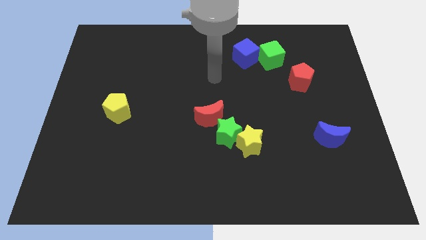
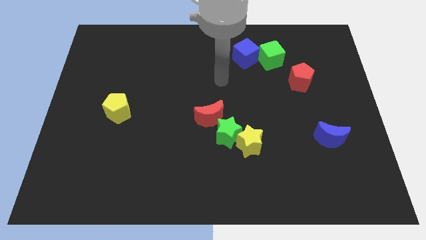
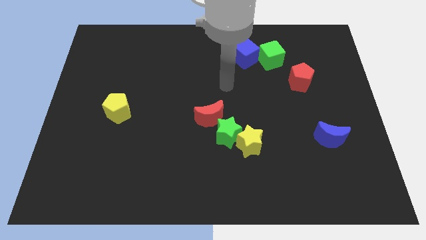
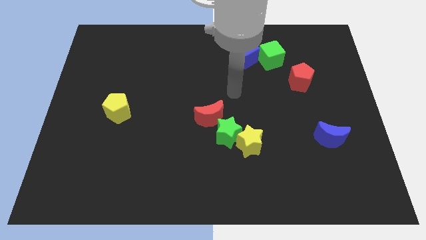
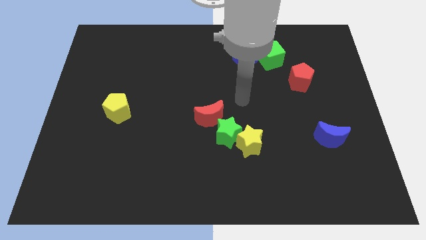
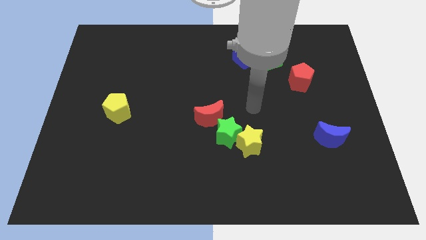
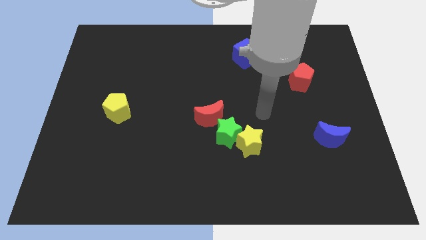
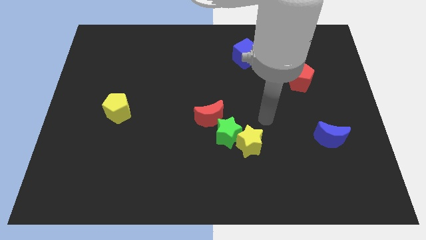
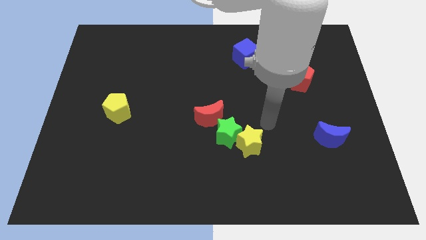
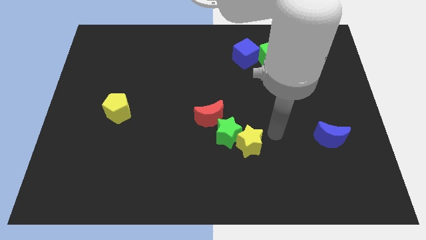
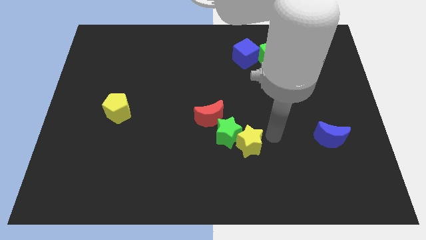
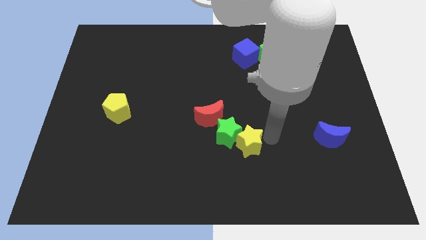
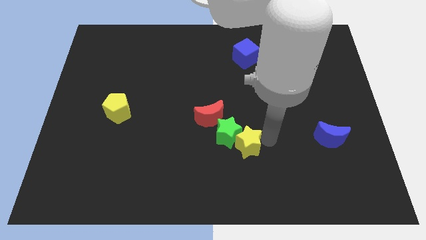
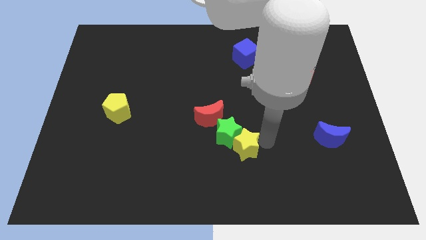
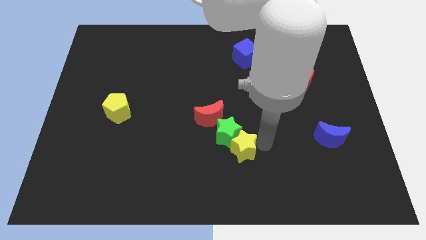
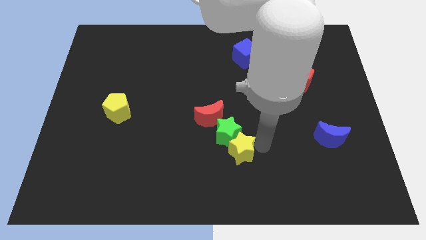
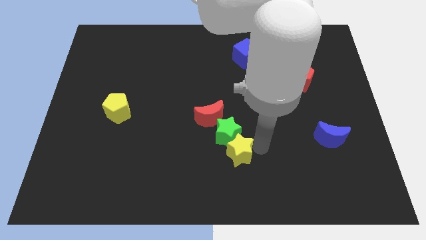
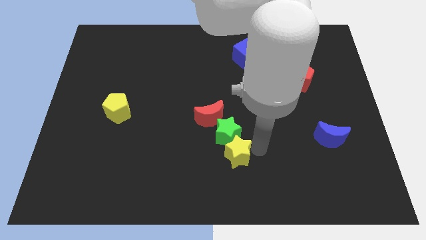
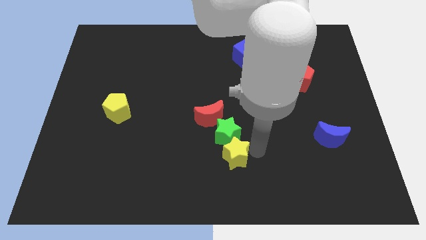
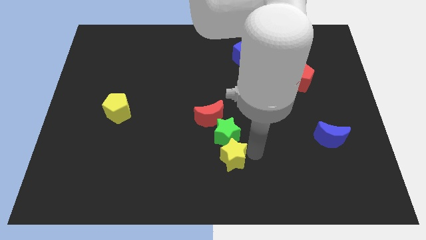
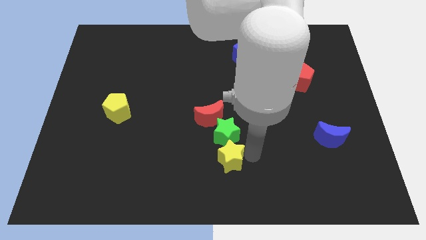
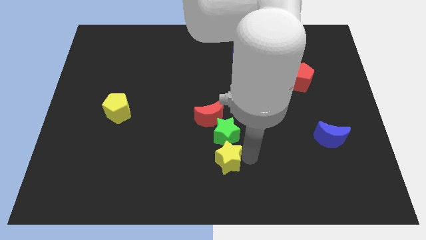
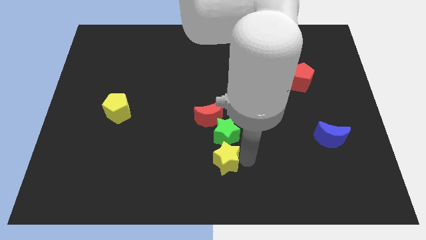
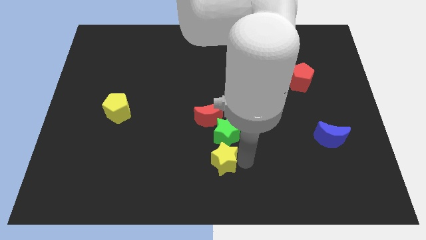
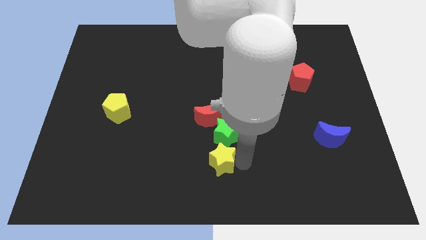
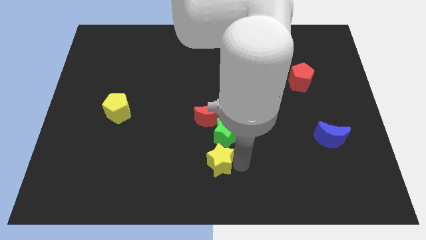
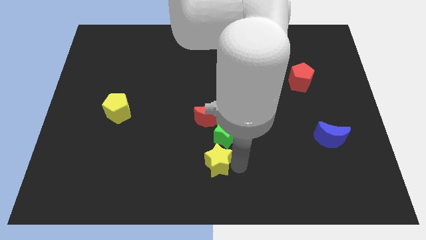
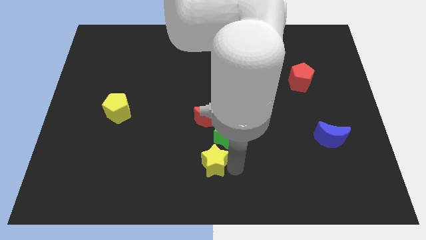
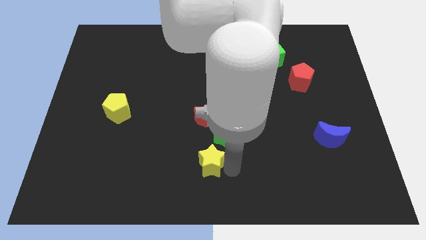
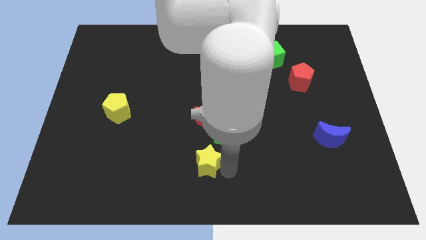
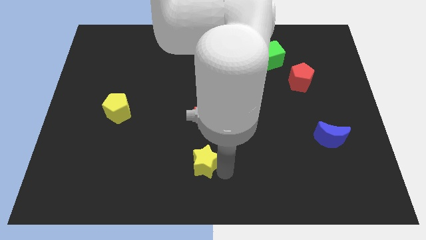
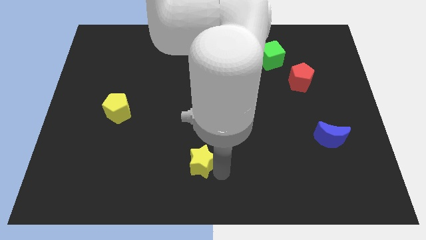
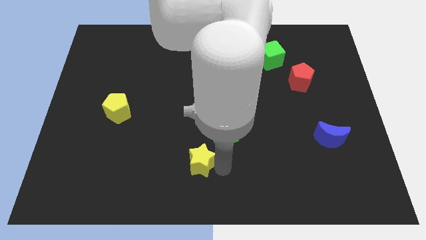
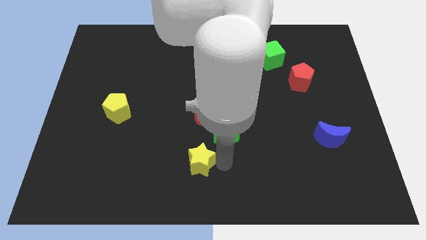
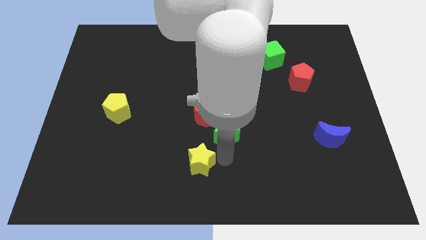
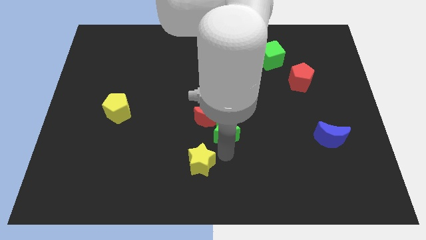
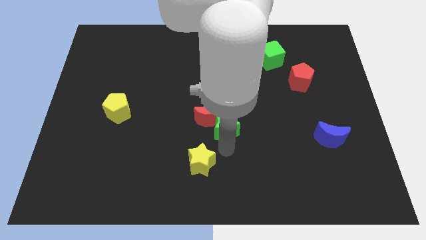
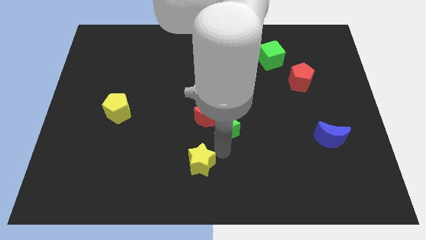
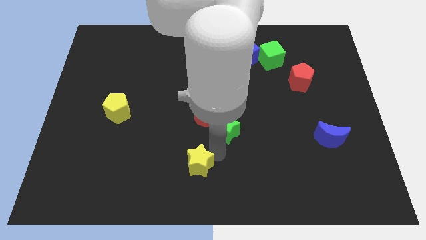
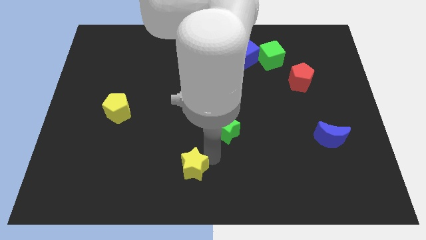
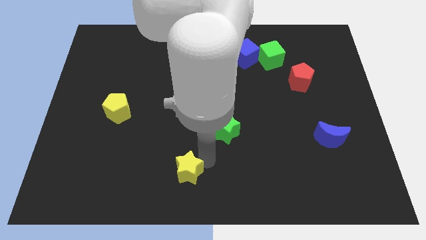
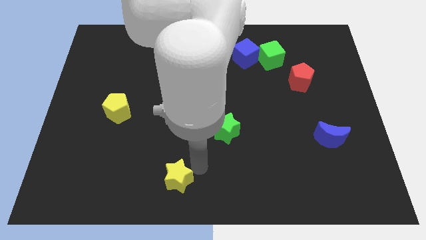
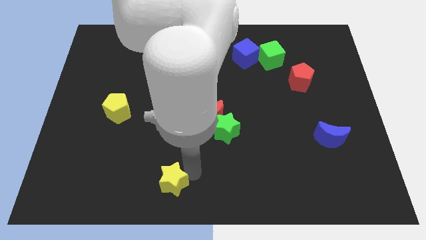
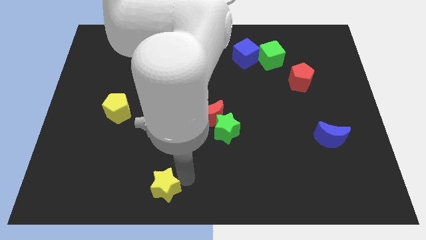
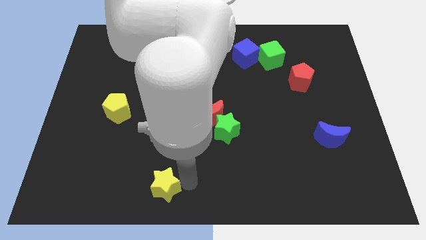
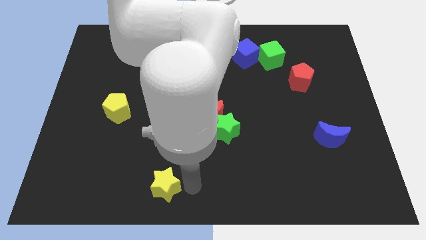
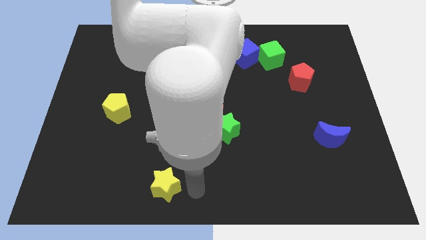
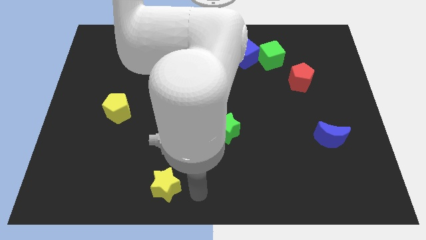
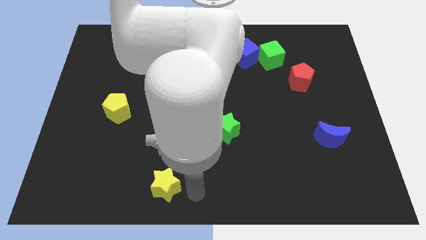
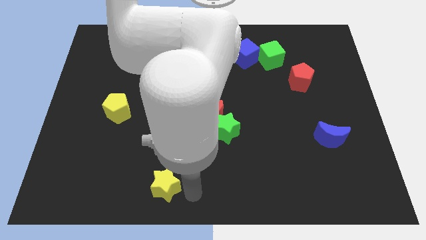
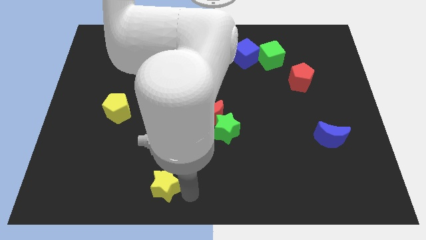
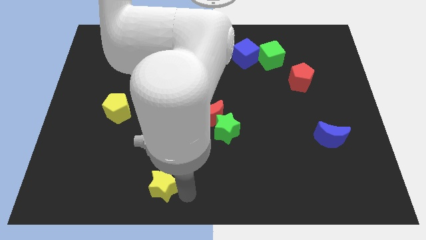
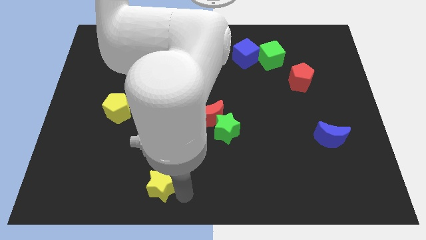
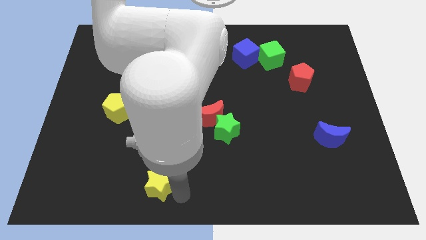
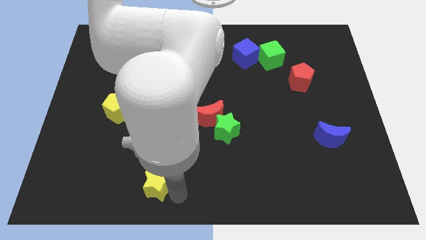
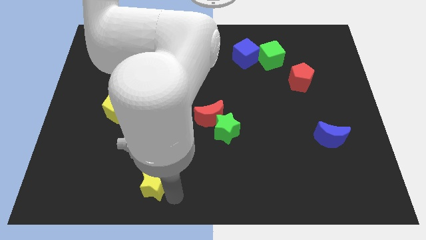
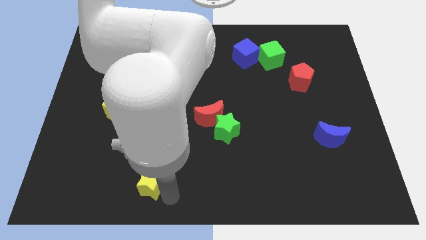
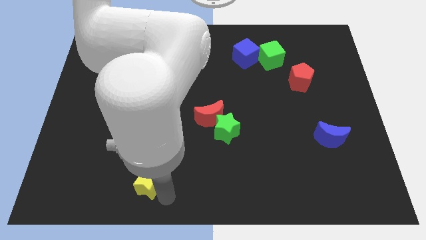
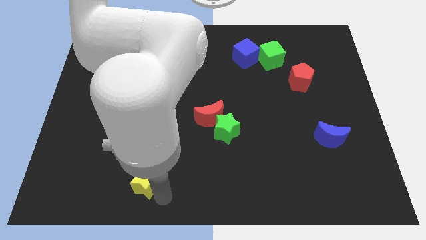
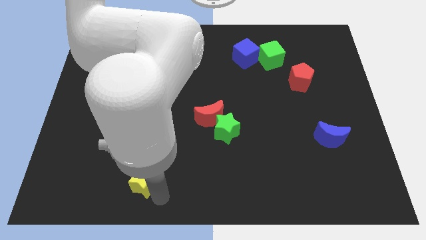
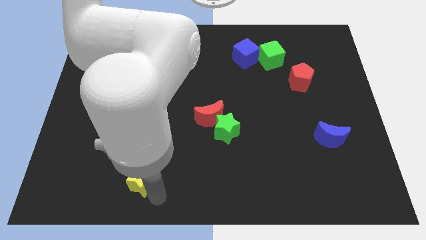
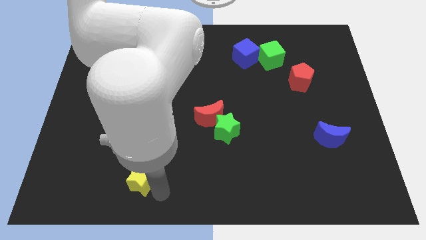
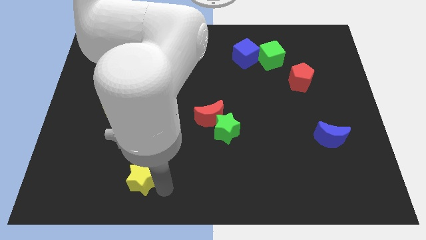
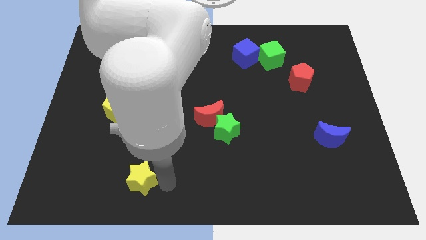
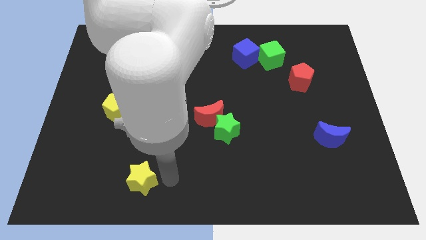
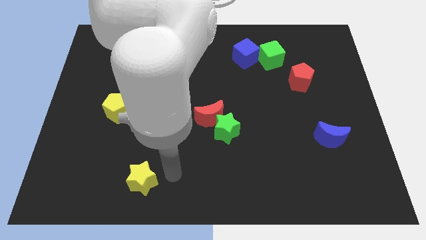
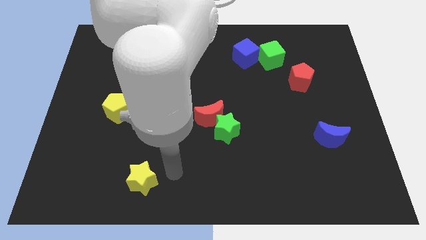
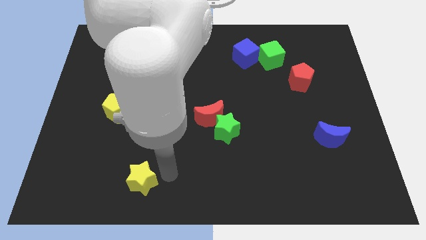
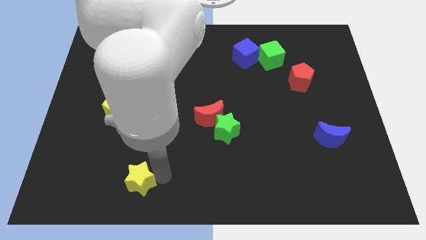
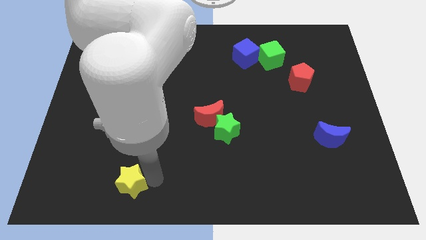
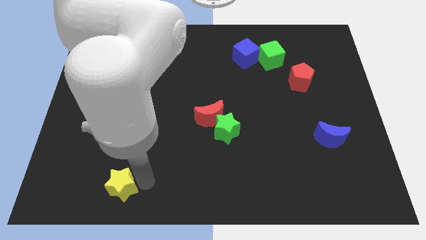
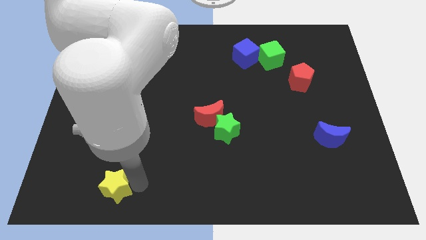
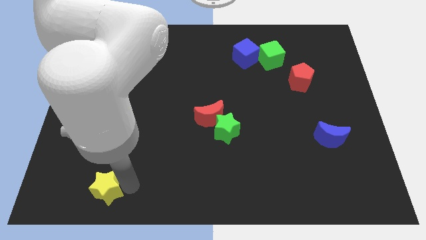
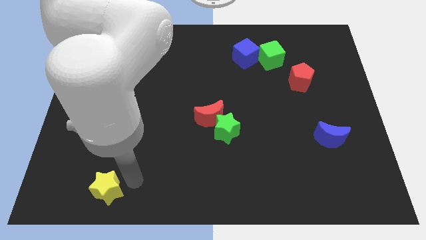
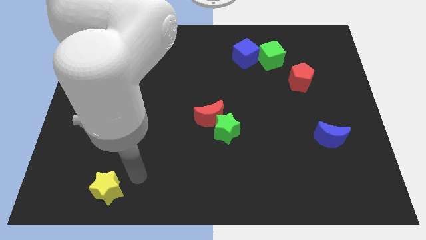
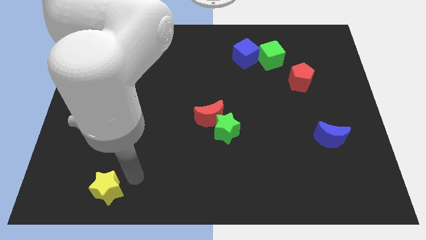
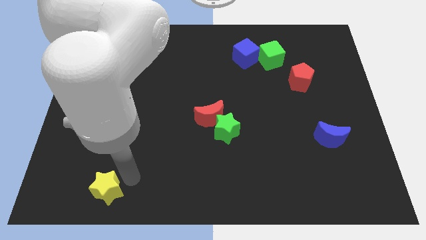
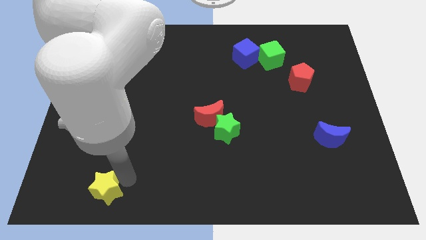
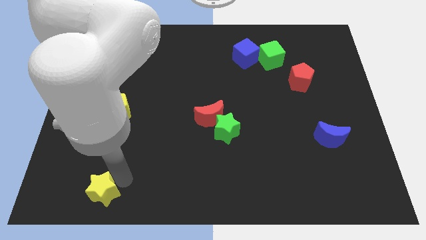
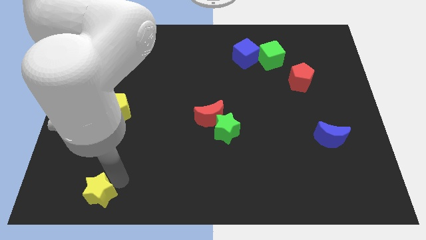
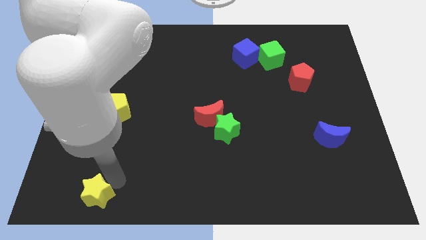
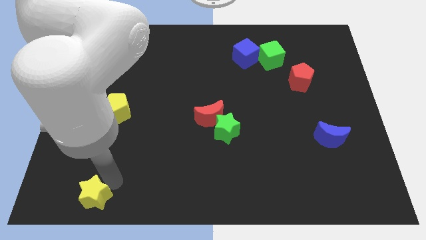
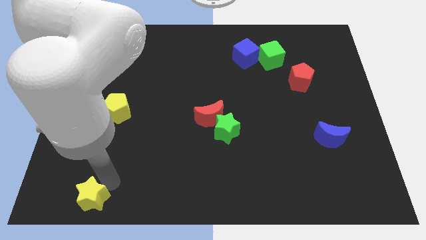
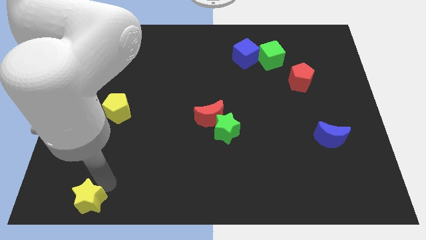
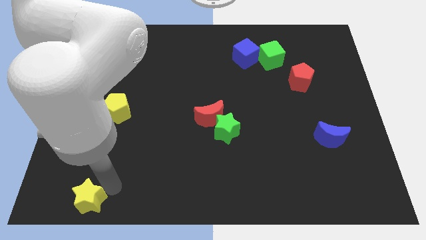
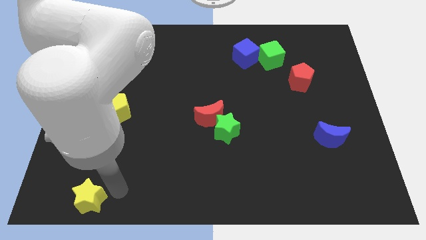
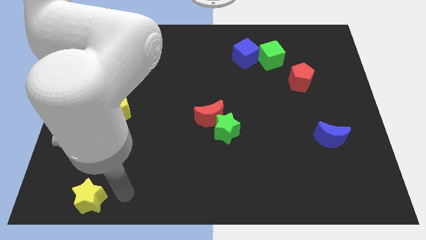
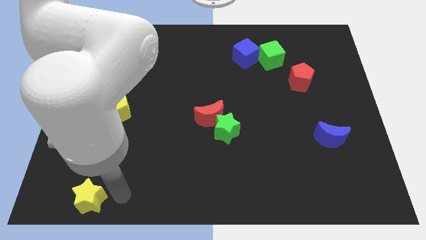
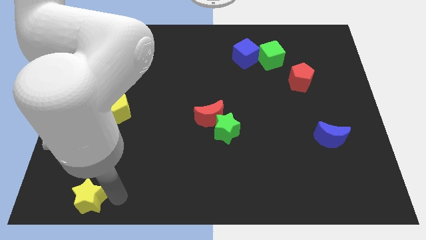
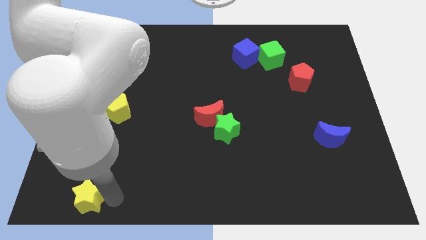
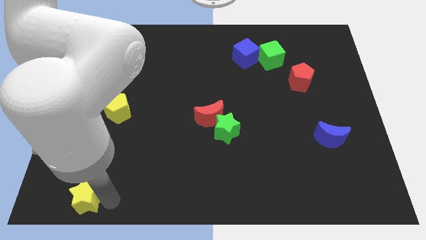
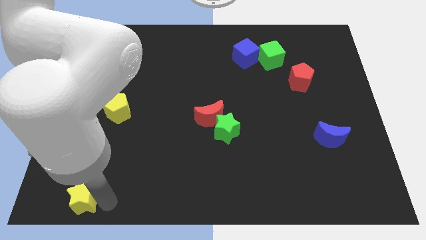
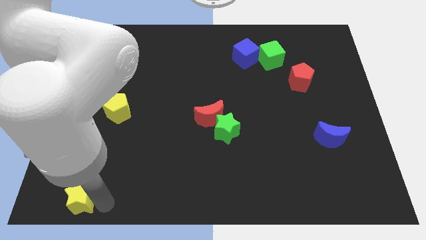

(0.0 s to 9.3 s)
move the yellow star to the bottom left of the board
